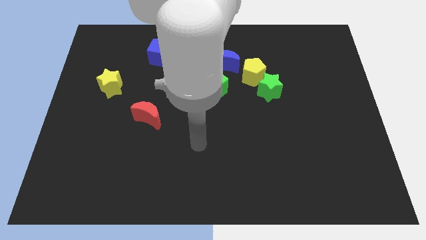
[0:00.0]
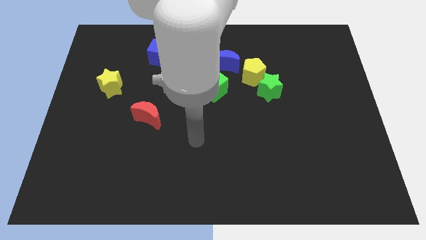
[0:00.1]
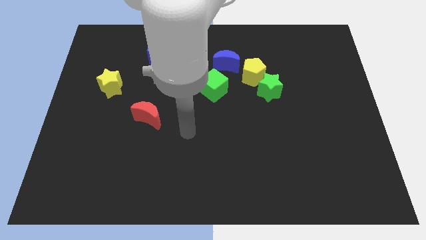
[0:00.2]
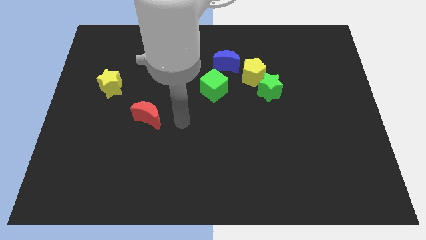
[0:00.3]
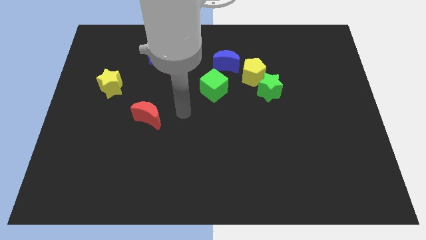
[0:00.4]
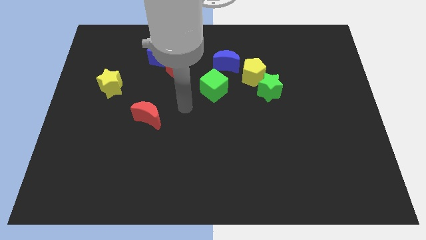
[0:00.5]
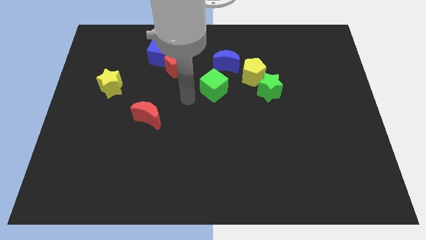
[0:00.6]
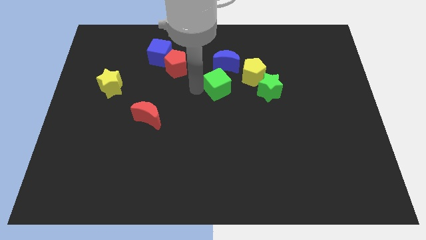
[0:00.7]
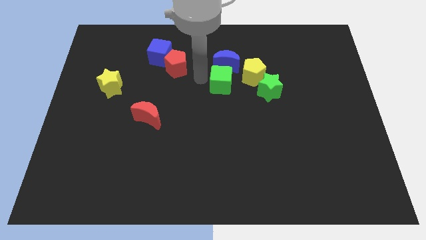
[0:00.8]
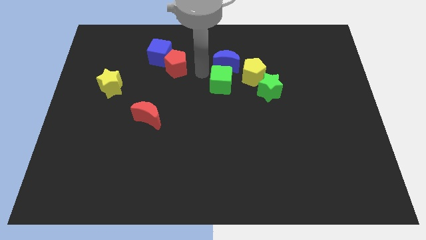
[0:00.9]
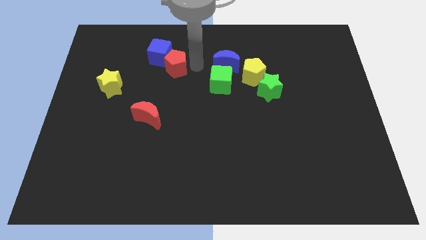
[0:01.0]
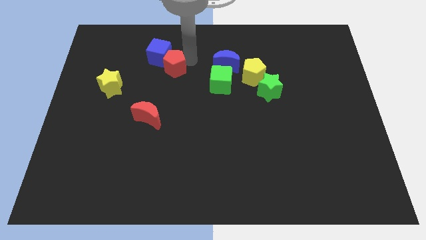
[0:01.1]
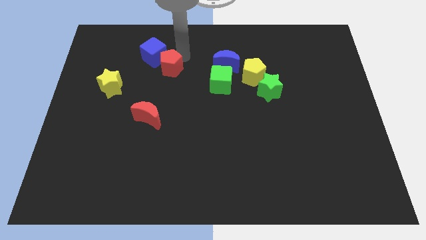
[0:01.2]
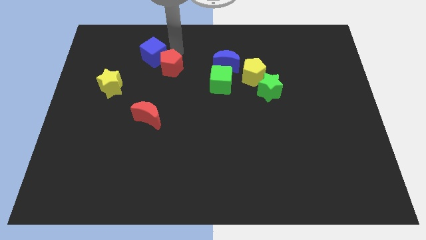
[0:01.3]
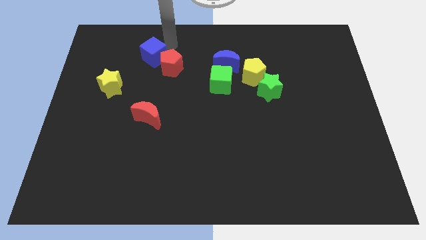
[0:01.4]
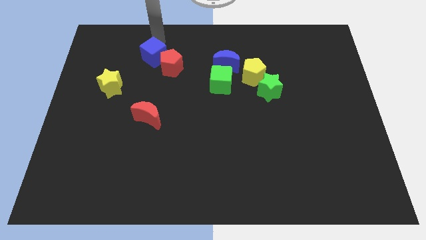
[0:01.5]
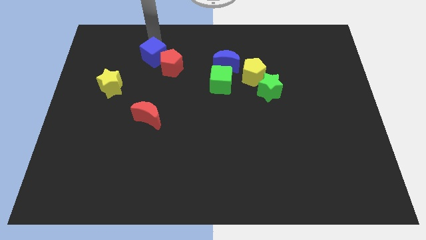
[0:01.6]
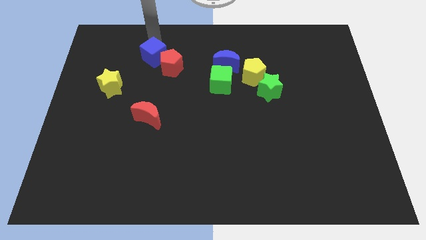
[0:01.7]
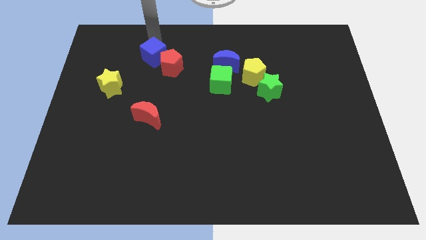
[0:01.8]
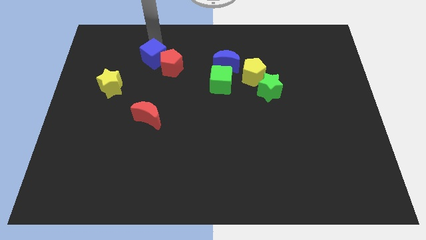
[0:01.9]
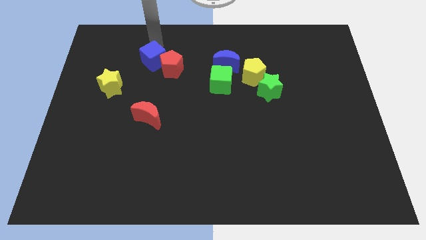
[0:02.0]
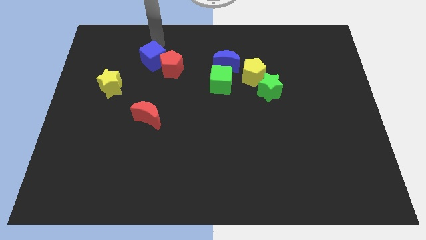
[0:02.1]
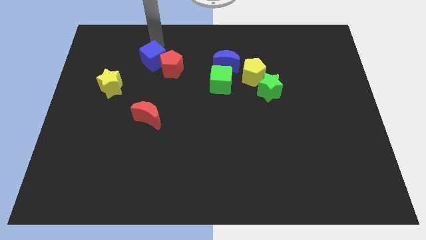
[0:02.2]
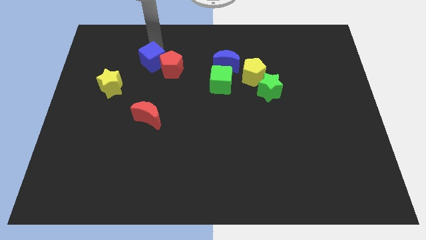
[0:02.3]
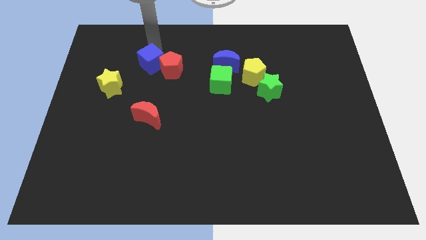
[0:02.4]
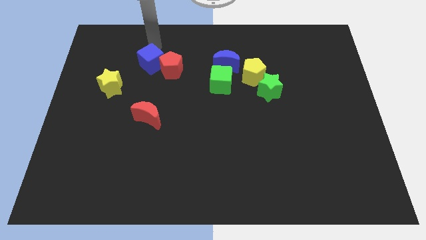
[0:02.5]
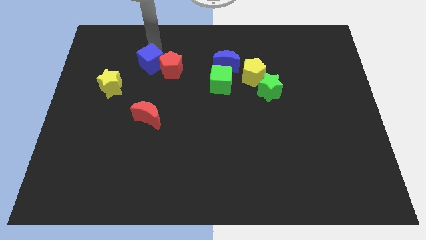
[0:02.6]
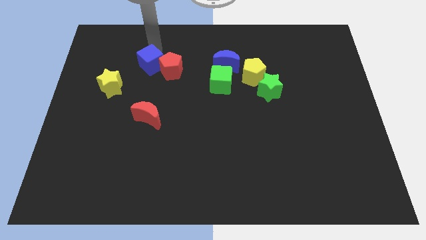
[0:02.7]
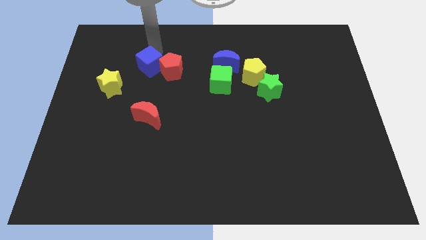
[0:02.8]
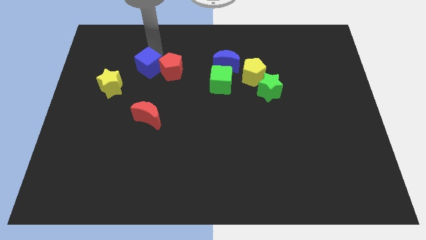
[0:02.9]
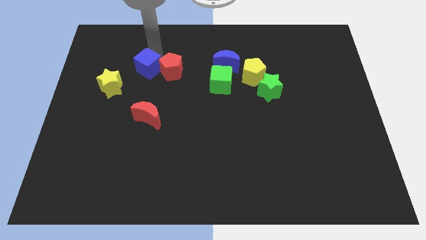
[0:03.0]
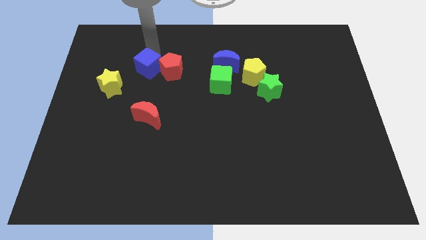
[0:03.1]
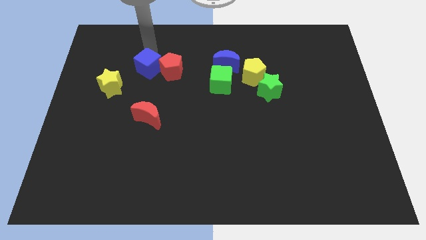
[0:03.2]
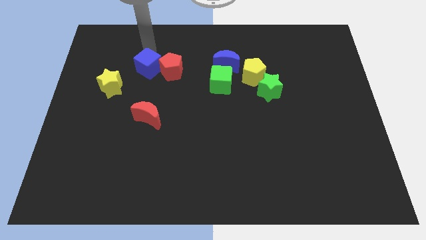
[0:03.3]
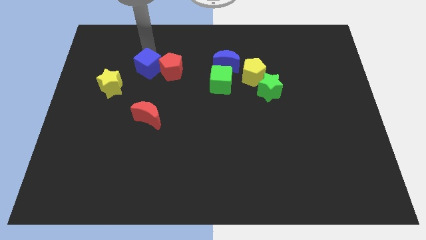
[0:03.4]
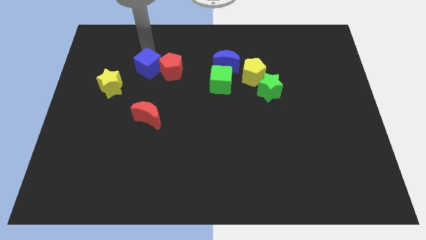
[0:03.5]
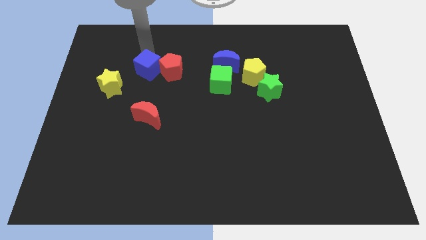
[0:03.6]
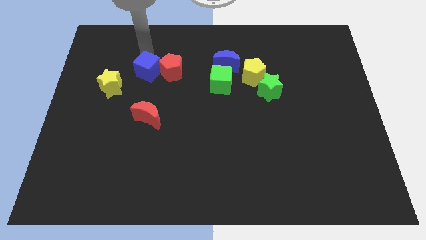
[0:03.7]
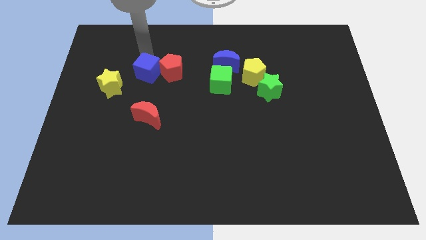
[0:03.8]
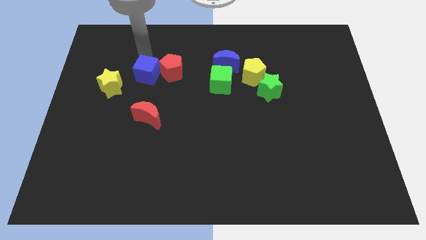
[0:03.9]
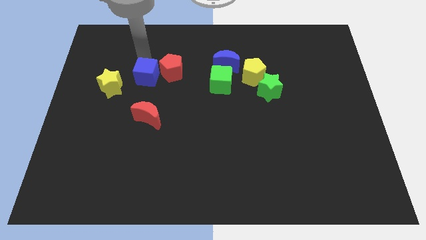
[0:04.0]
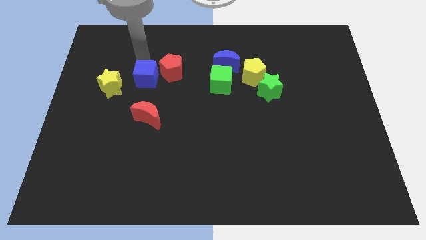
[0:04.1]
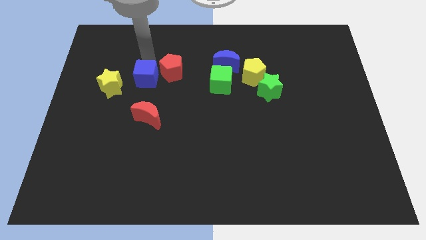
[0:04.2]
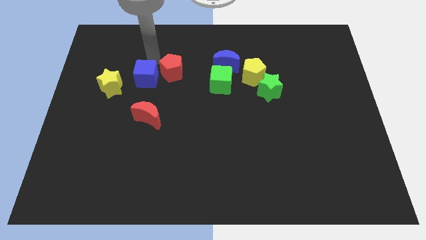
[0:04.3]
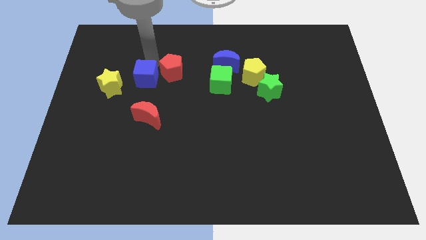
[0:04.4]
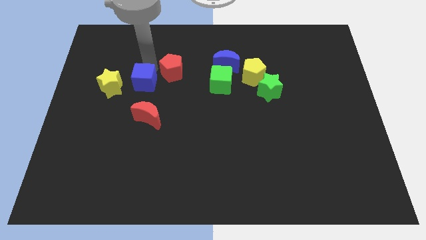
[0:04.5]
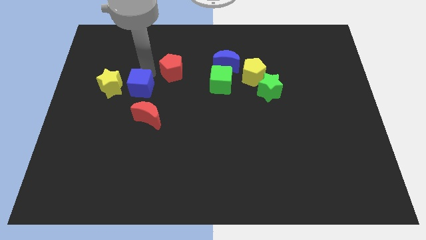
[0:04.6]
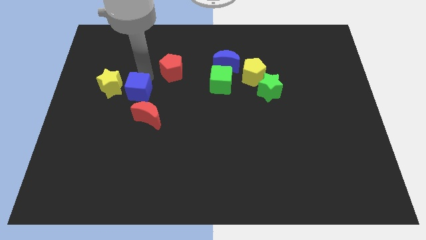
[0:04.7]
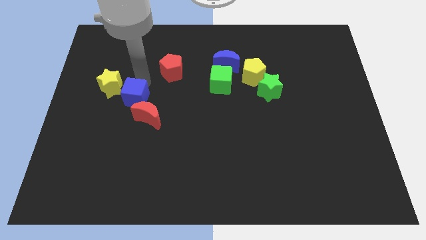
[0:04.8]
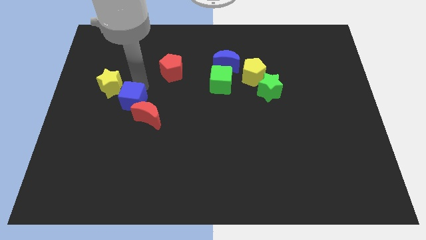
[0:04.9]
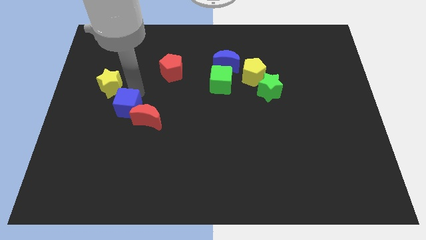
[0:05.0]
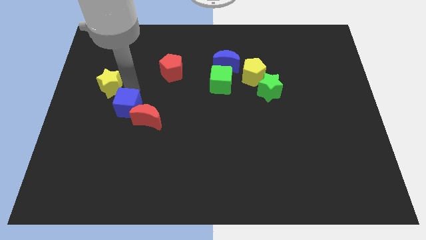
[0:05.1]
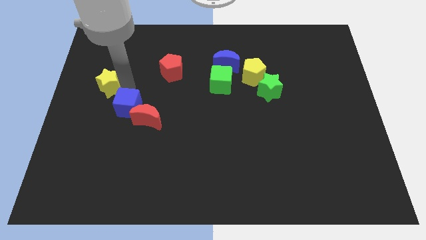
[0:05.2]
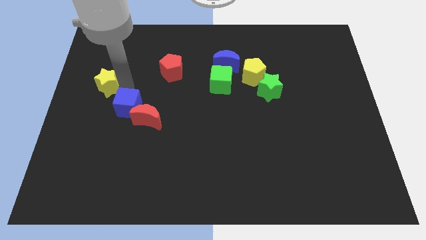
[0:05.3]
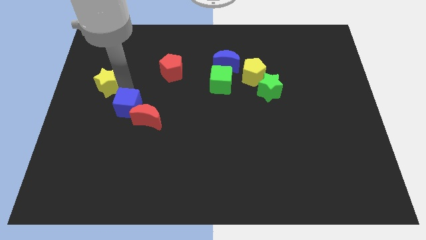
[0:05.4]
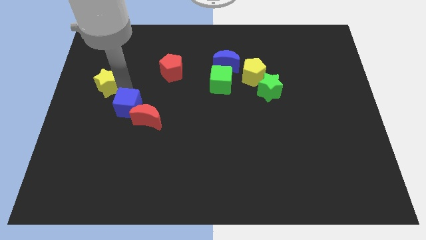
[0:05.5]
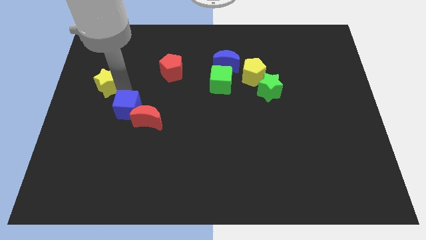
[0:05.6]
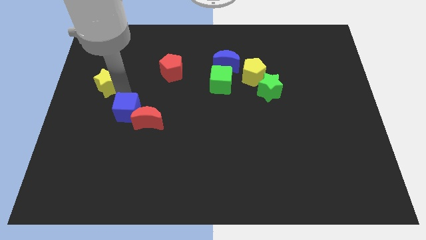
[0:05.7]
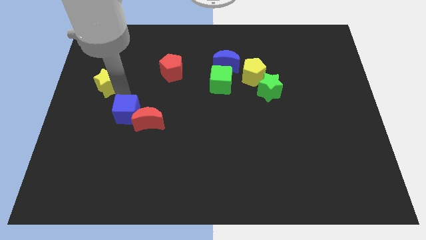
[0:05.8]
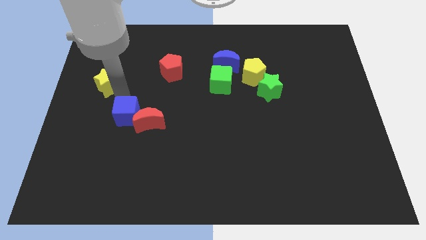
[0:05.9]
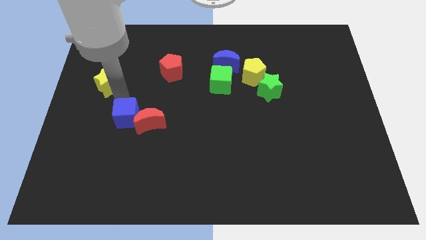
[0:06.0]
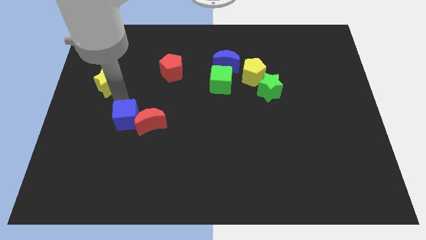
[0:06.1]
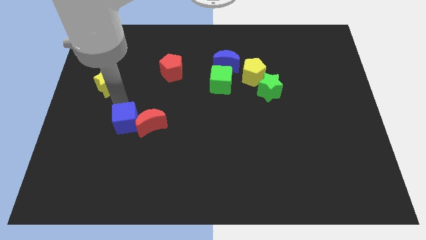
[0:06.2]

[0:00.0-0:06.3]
push the blue cube down

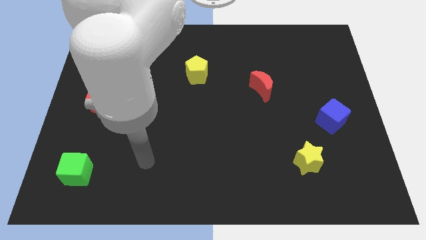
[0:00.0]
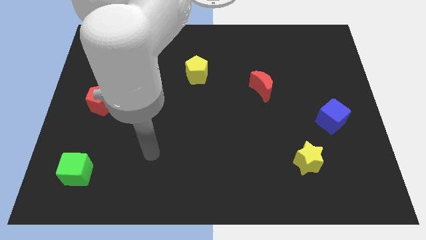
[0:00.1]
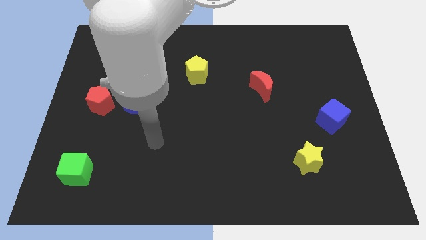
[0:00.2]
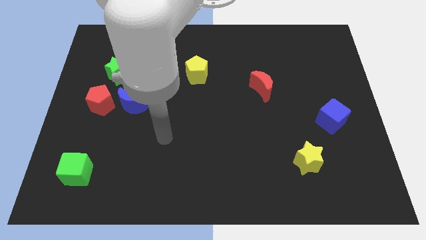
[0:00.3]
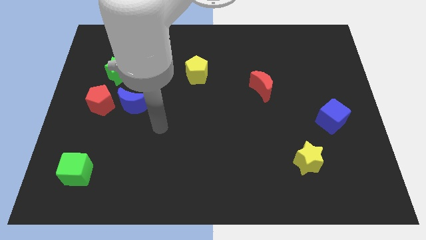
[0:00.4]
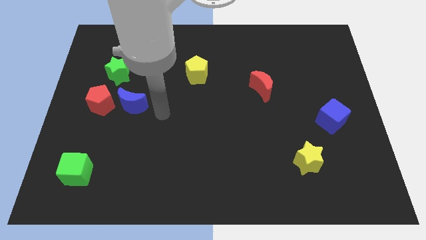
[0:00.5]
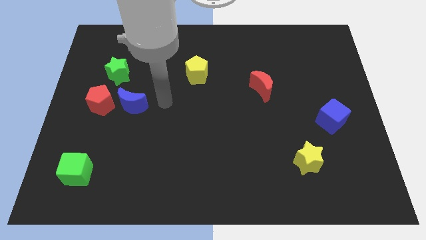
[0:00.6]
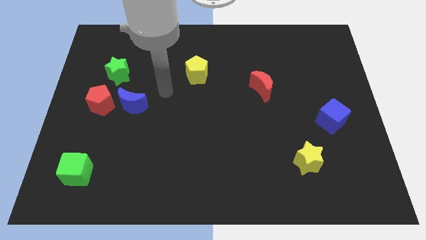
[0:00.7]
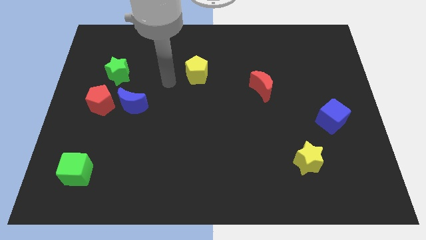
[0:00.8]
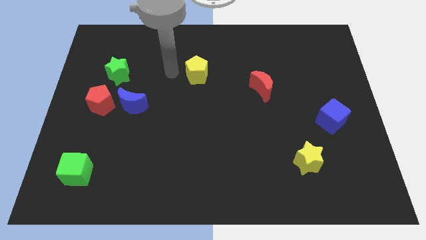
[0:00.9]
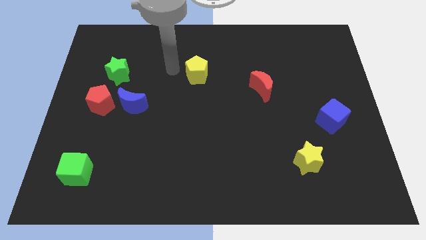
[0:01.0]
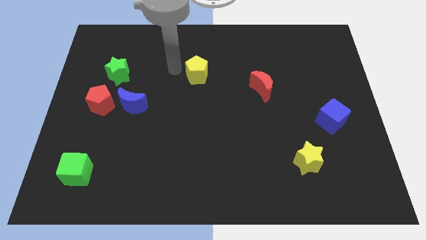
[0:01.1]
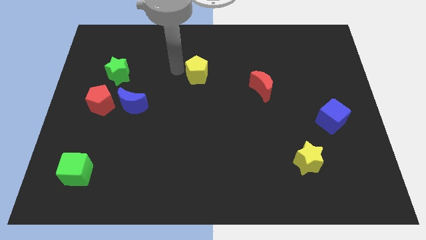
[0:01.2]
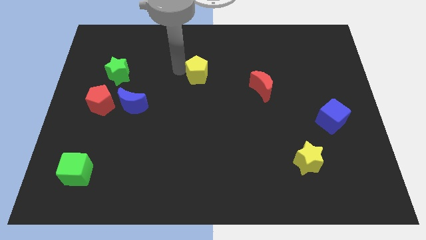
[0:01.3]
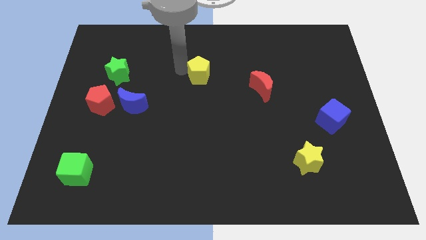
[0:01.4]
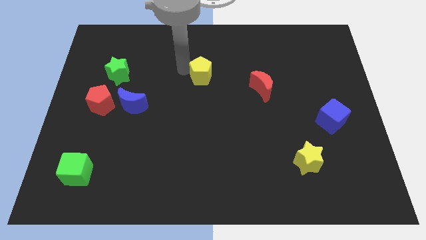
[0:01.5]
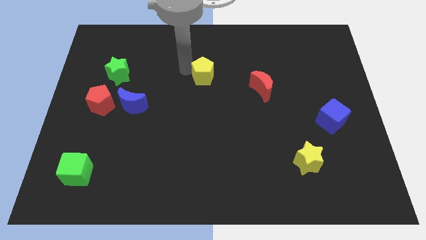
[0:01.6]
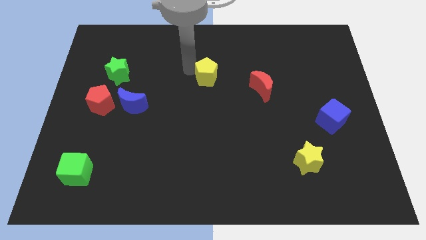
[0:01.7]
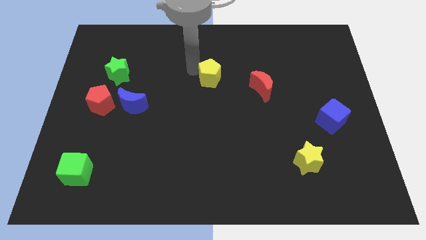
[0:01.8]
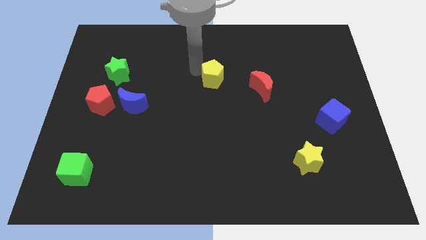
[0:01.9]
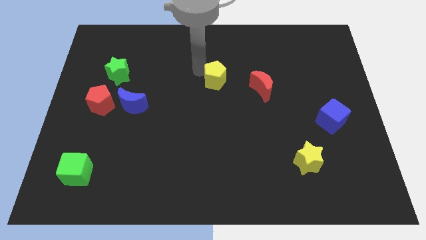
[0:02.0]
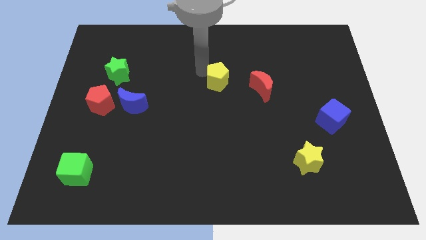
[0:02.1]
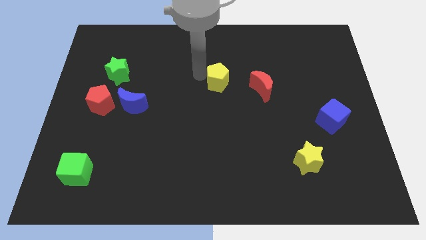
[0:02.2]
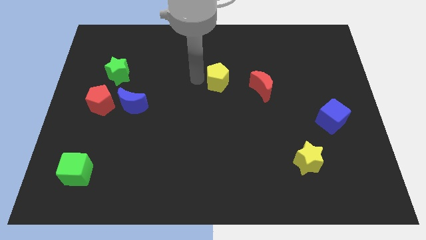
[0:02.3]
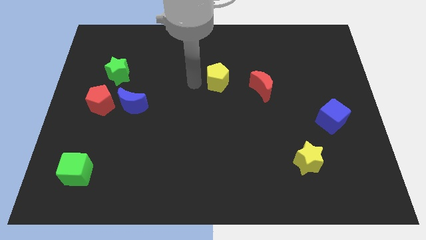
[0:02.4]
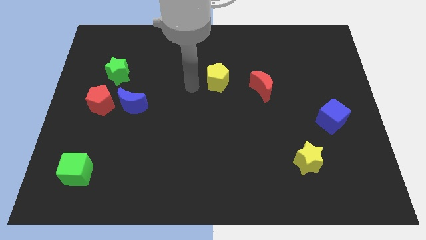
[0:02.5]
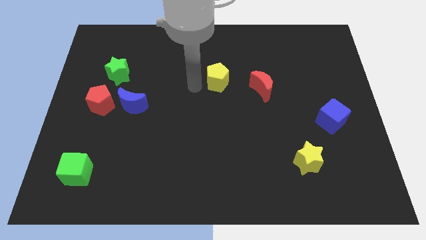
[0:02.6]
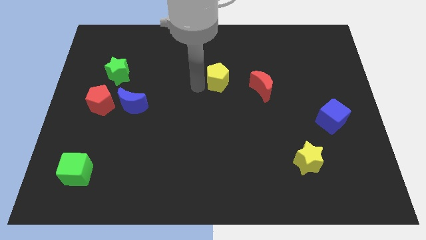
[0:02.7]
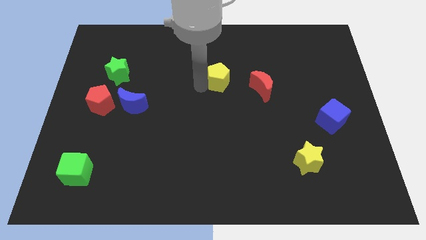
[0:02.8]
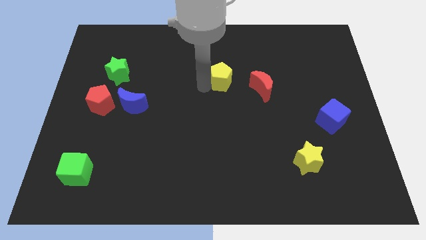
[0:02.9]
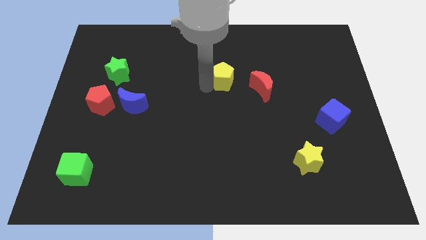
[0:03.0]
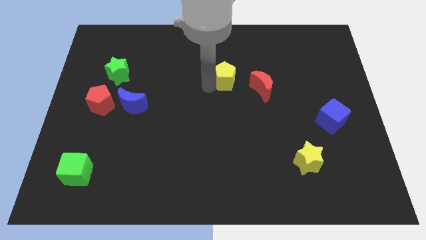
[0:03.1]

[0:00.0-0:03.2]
slightly push the yellow pentagon to the right
